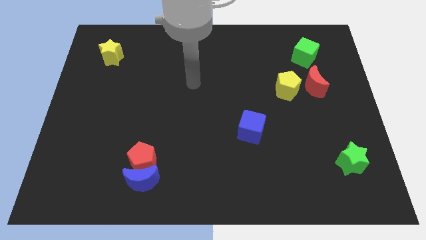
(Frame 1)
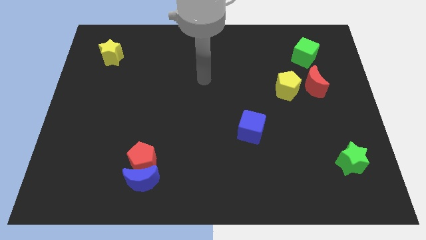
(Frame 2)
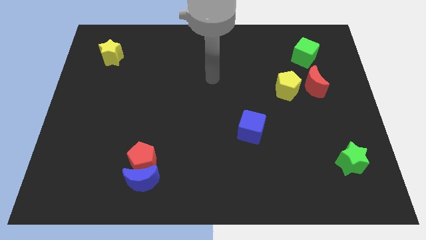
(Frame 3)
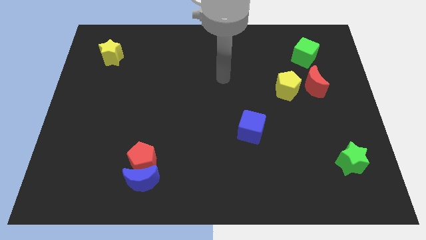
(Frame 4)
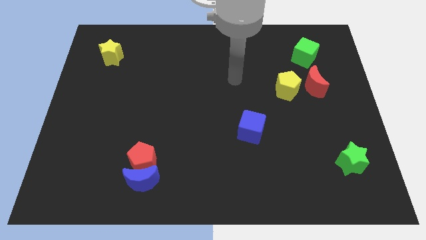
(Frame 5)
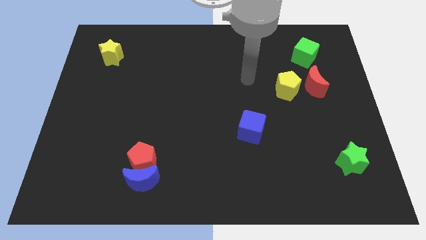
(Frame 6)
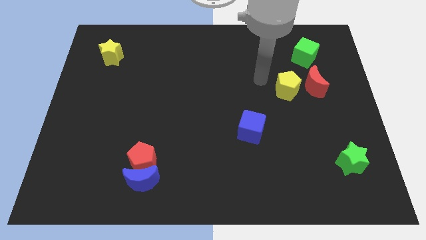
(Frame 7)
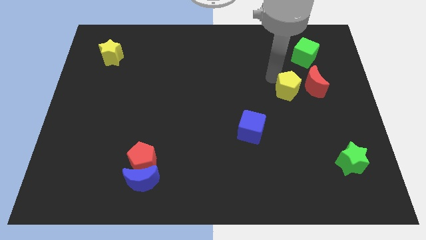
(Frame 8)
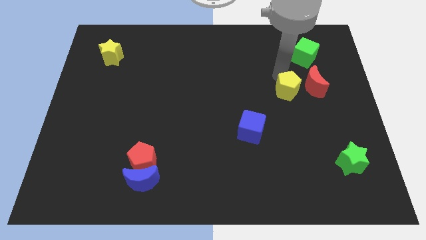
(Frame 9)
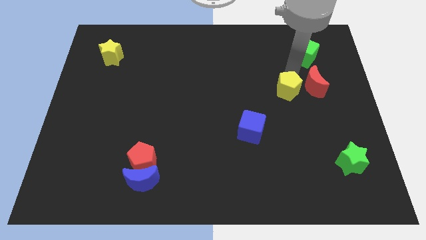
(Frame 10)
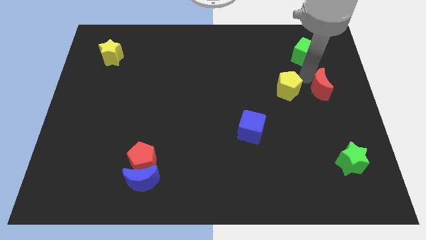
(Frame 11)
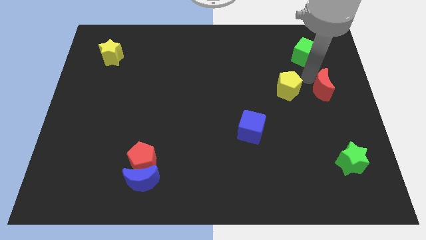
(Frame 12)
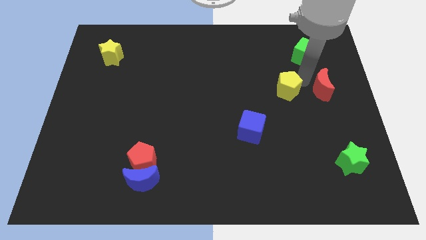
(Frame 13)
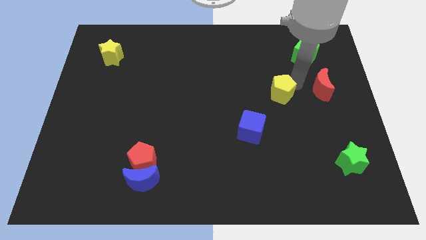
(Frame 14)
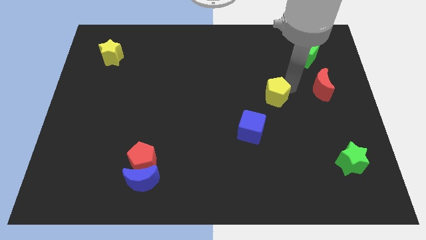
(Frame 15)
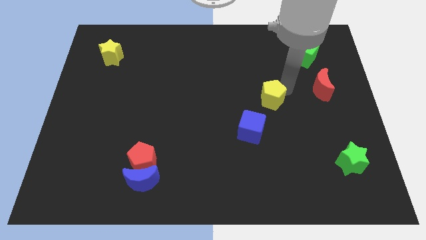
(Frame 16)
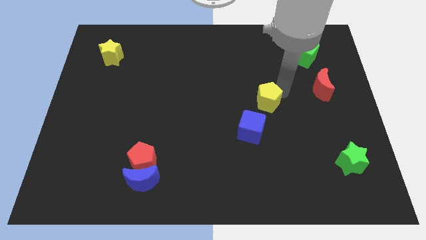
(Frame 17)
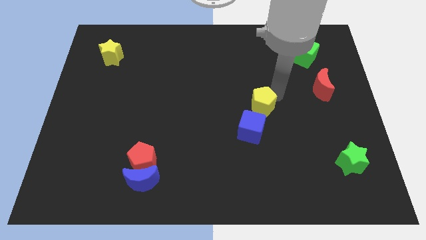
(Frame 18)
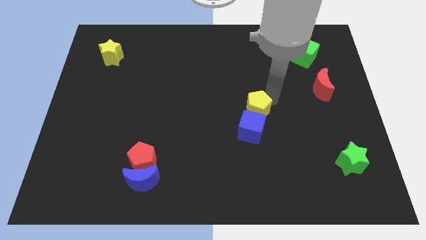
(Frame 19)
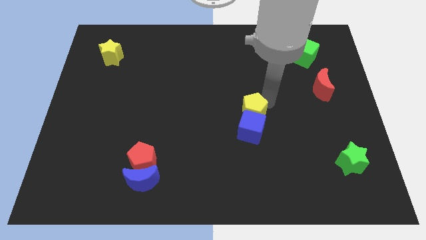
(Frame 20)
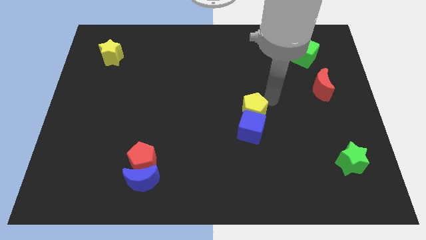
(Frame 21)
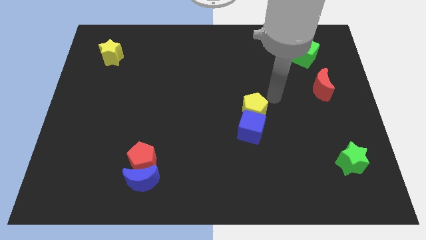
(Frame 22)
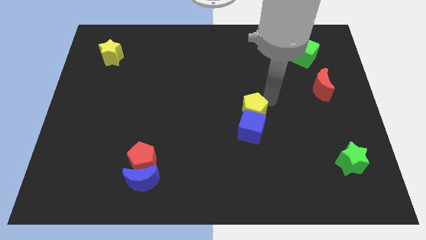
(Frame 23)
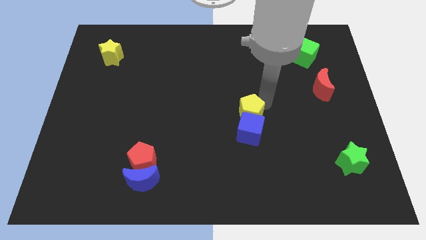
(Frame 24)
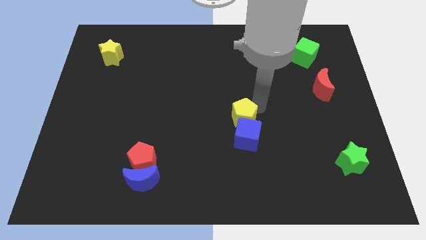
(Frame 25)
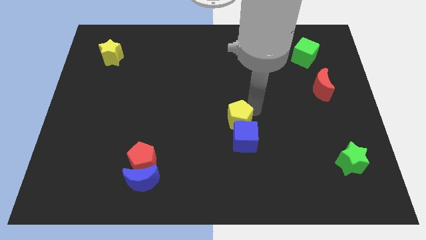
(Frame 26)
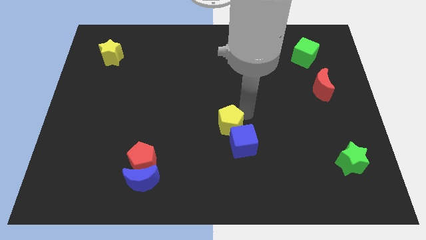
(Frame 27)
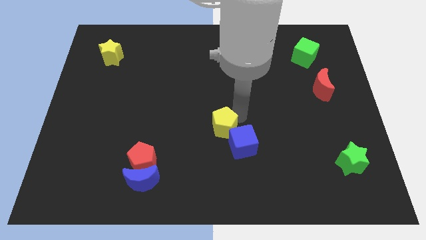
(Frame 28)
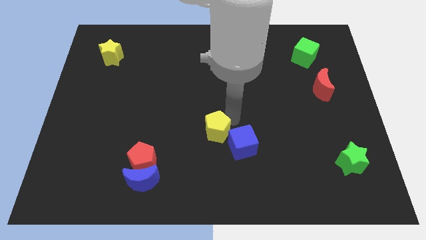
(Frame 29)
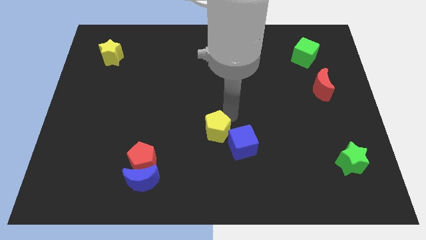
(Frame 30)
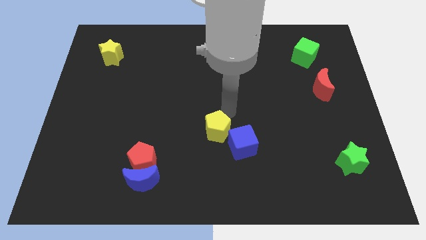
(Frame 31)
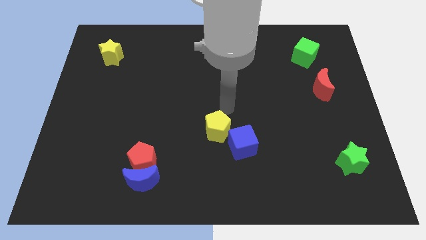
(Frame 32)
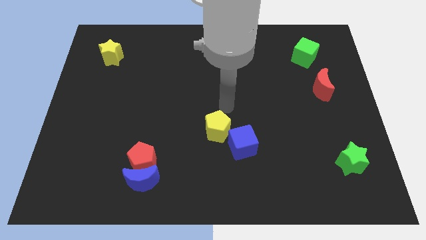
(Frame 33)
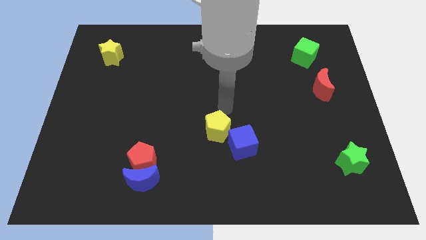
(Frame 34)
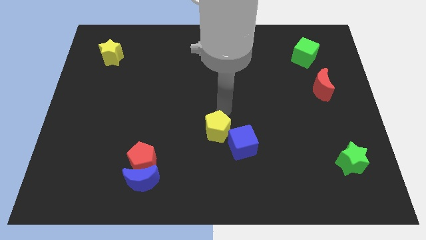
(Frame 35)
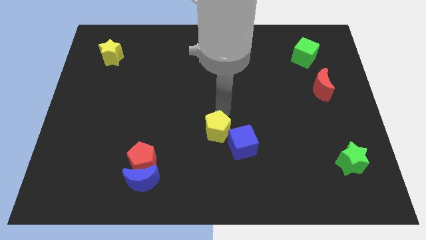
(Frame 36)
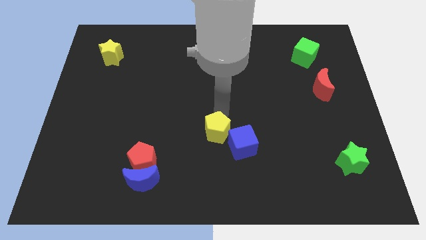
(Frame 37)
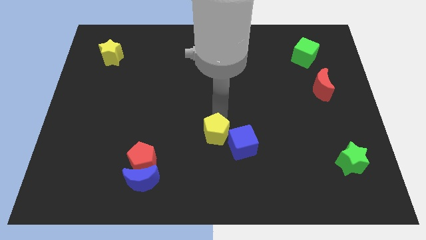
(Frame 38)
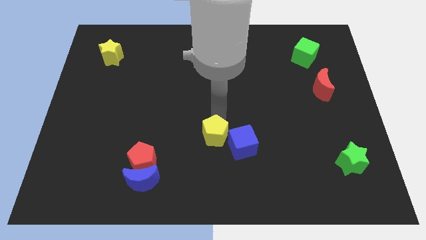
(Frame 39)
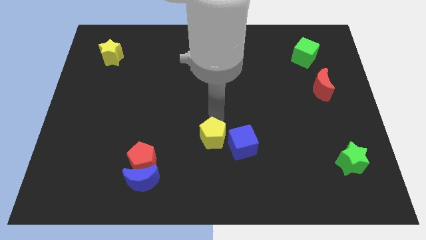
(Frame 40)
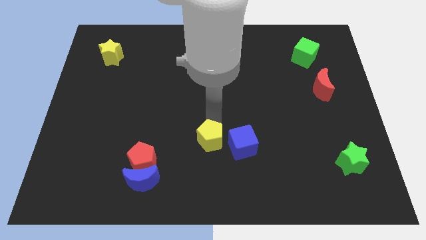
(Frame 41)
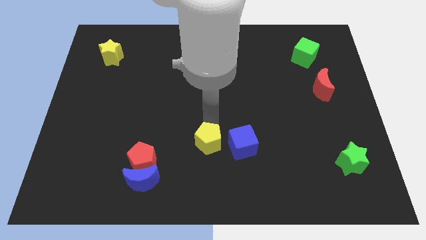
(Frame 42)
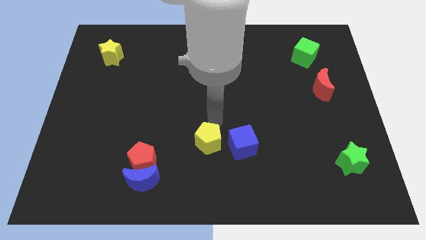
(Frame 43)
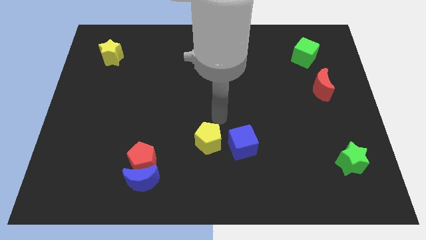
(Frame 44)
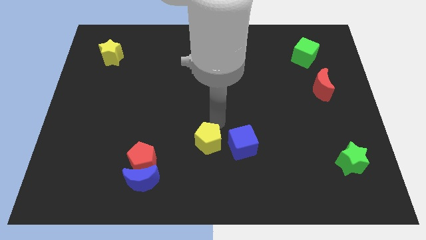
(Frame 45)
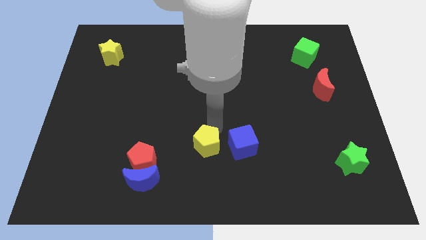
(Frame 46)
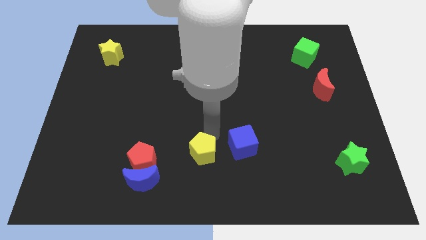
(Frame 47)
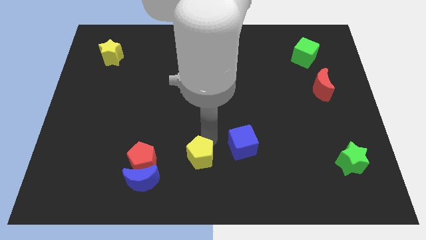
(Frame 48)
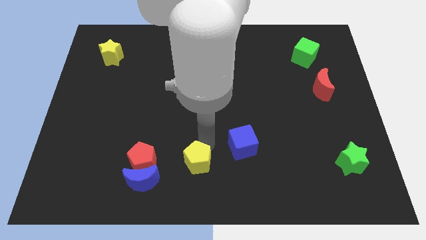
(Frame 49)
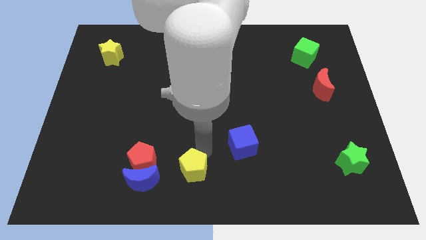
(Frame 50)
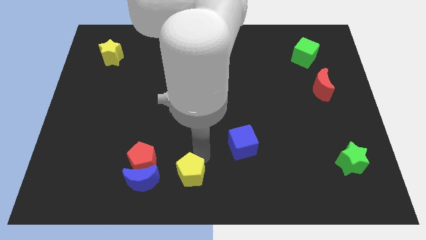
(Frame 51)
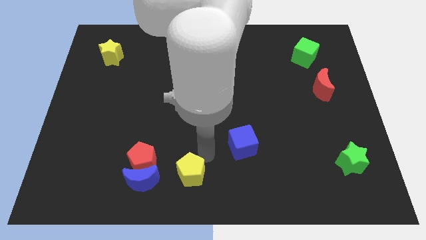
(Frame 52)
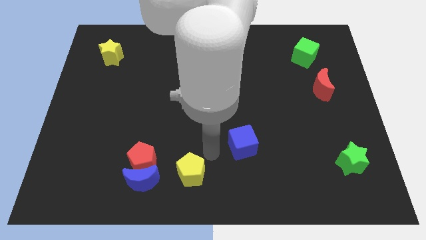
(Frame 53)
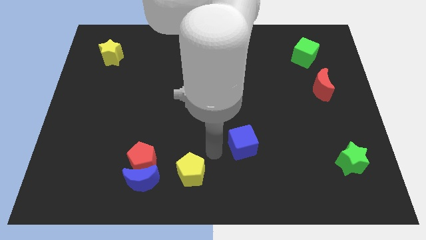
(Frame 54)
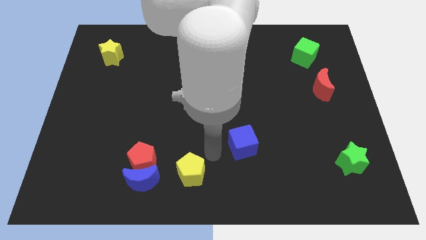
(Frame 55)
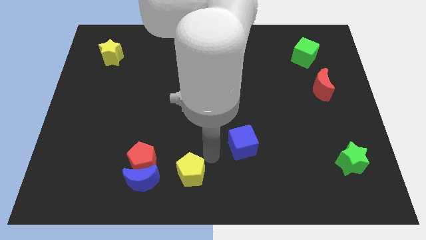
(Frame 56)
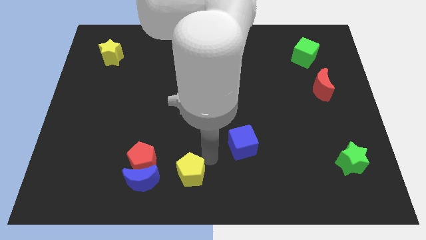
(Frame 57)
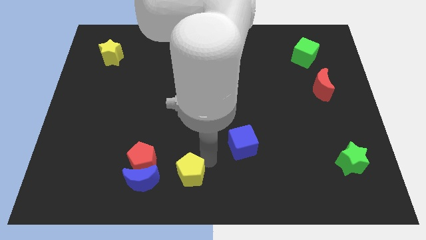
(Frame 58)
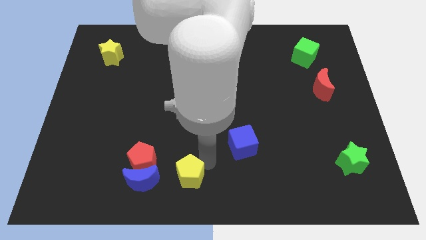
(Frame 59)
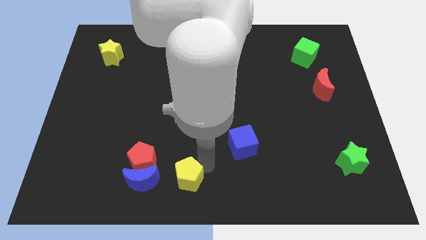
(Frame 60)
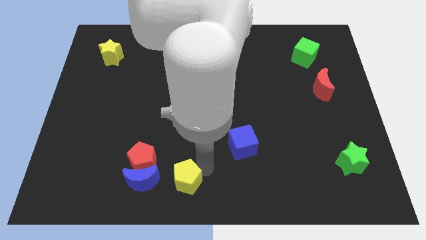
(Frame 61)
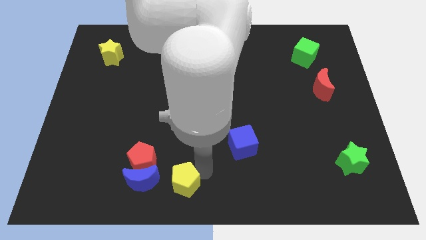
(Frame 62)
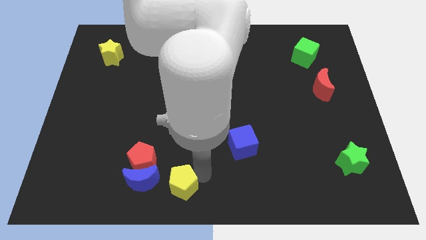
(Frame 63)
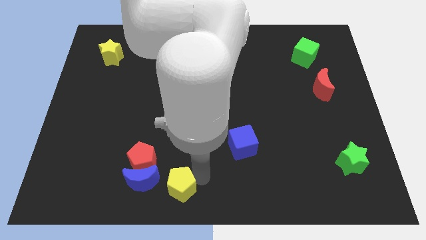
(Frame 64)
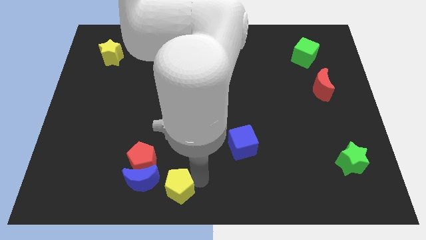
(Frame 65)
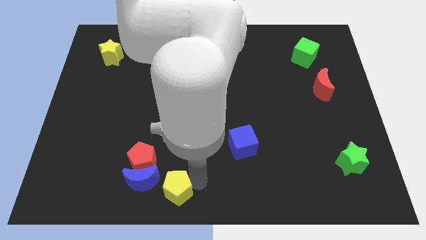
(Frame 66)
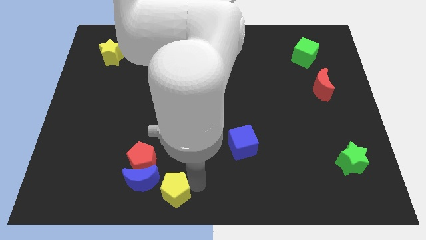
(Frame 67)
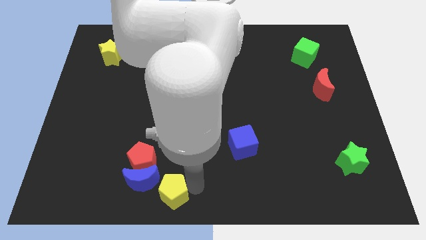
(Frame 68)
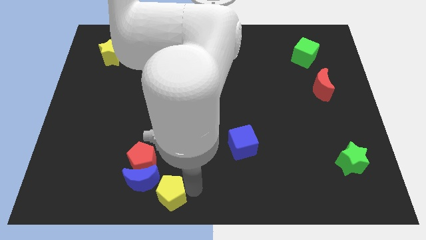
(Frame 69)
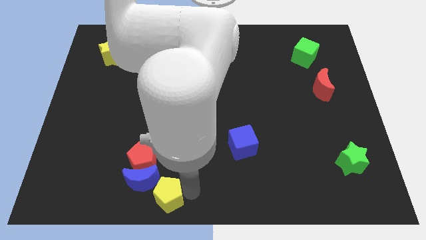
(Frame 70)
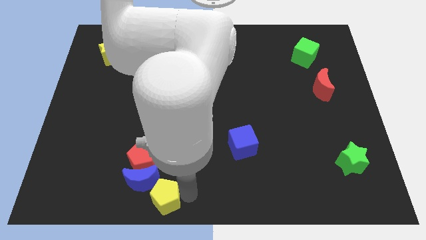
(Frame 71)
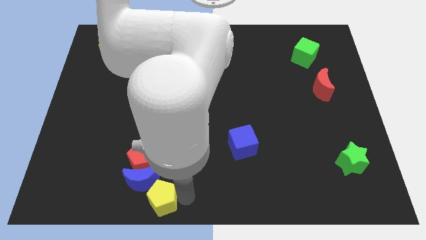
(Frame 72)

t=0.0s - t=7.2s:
push the yellow pentagon towards the blue moon

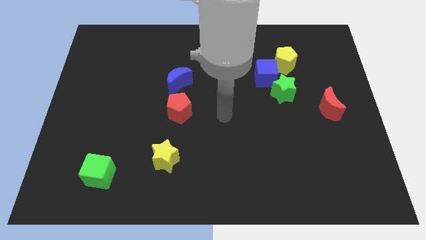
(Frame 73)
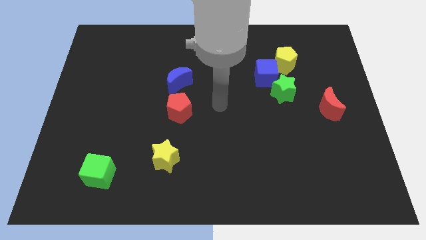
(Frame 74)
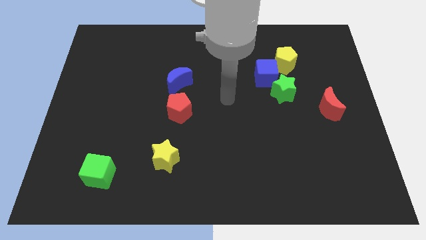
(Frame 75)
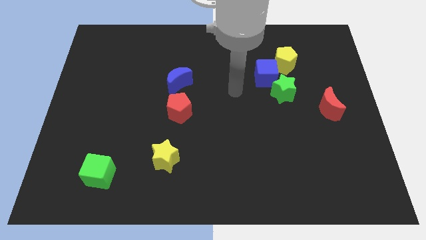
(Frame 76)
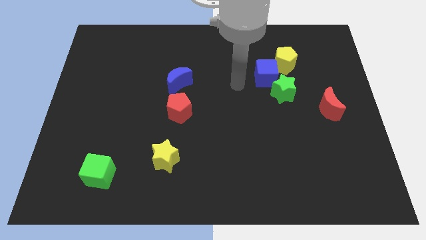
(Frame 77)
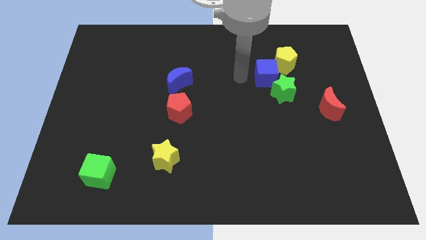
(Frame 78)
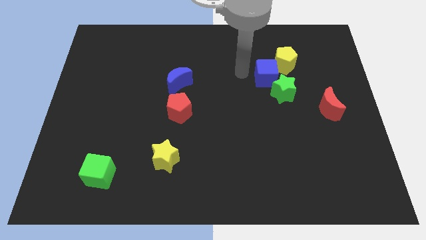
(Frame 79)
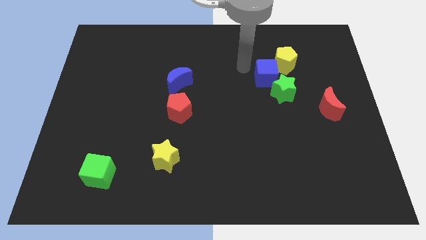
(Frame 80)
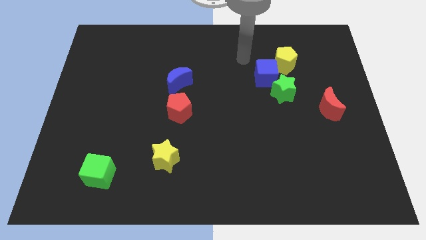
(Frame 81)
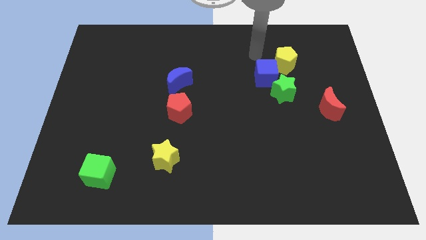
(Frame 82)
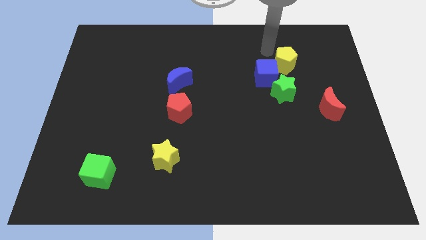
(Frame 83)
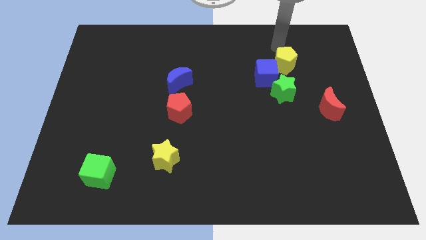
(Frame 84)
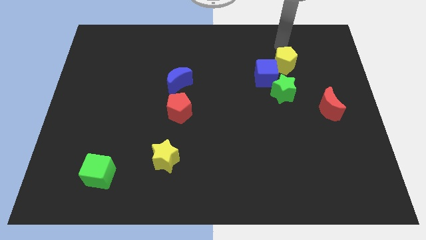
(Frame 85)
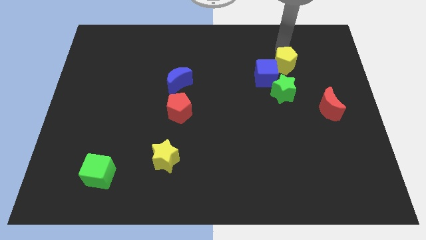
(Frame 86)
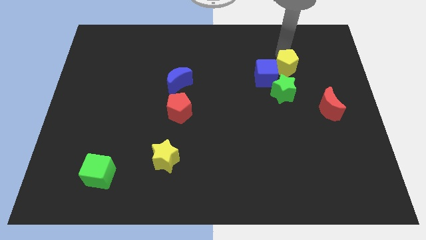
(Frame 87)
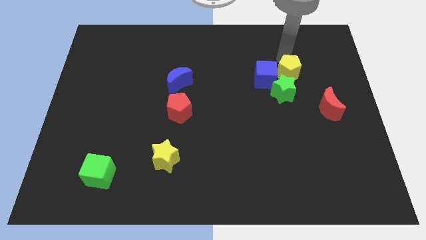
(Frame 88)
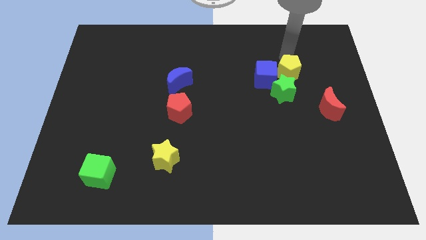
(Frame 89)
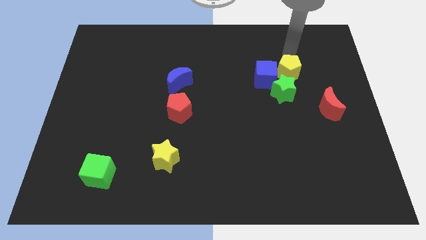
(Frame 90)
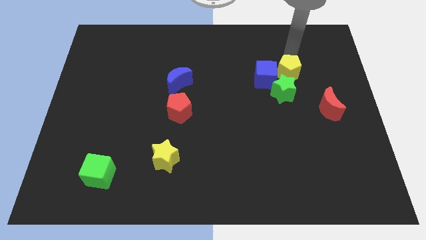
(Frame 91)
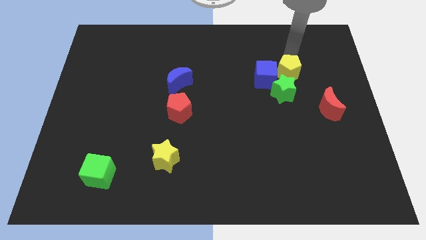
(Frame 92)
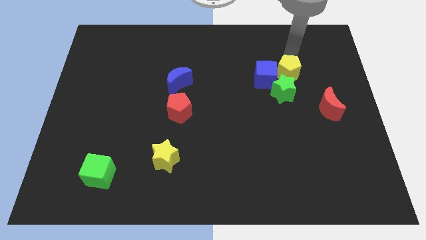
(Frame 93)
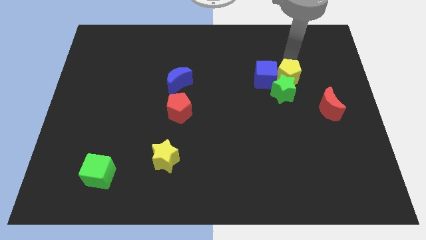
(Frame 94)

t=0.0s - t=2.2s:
slide the yellow pentagon next to the green star
